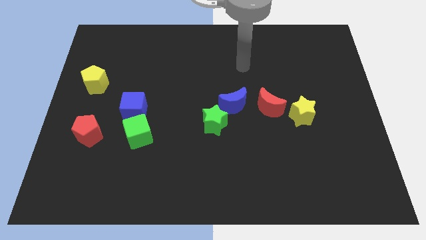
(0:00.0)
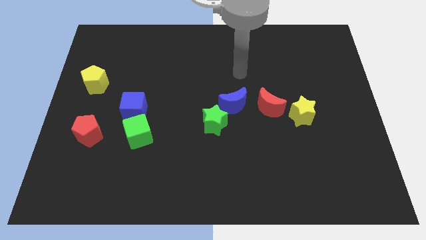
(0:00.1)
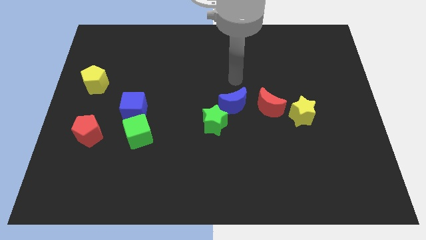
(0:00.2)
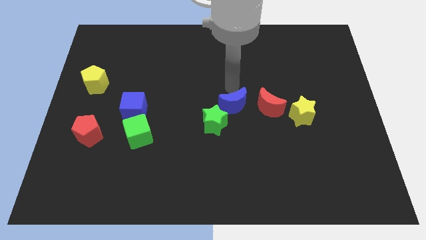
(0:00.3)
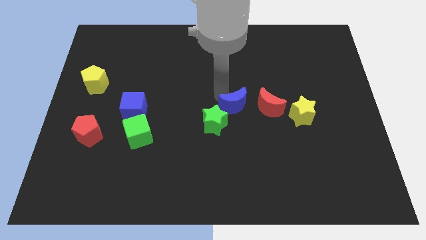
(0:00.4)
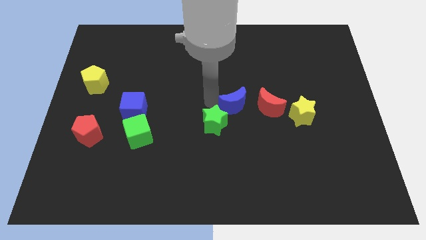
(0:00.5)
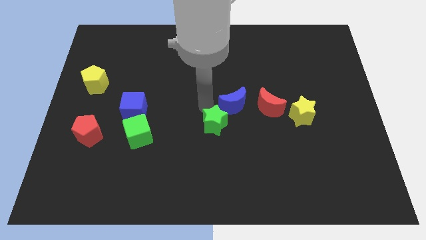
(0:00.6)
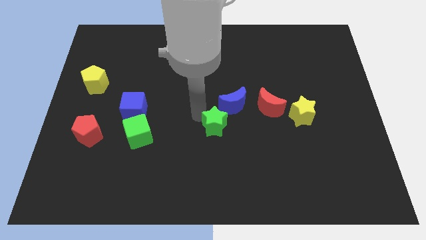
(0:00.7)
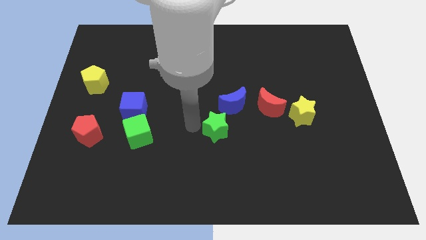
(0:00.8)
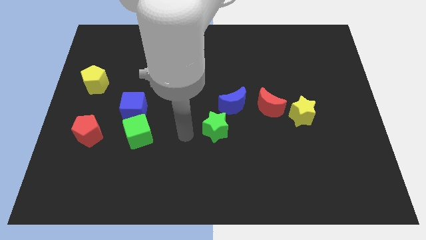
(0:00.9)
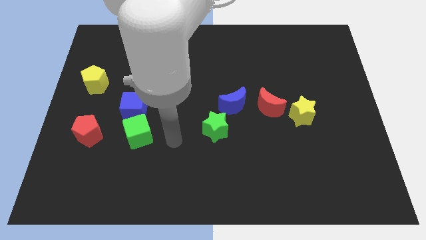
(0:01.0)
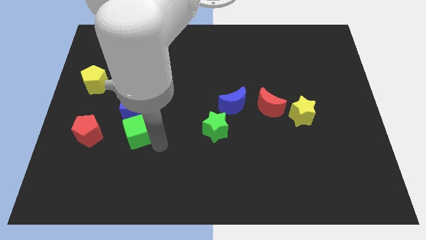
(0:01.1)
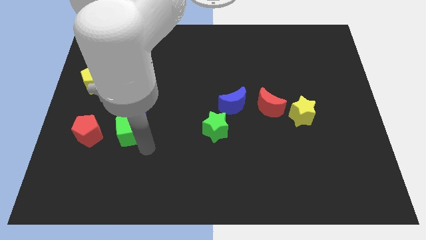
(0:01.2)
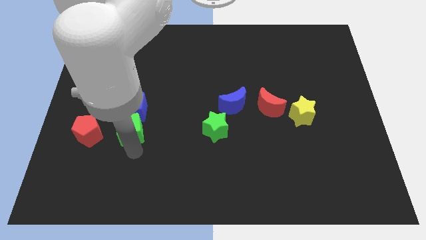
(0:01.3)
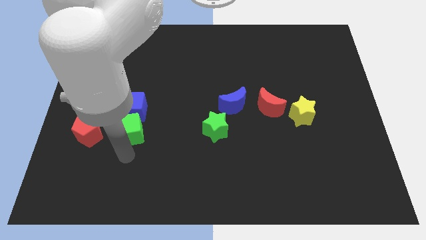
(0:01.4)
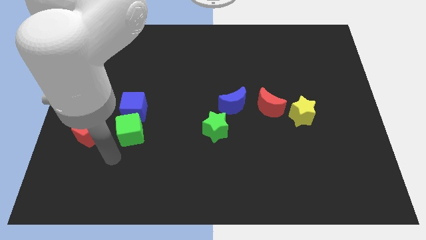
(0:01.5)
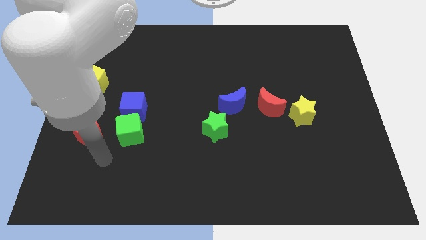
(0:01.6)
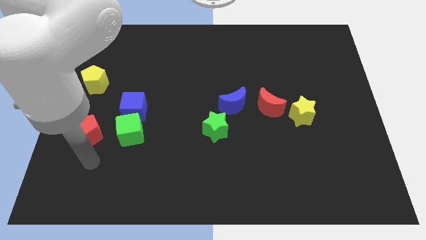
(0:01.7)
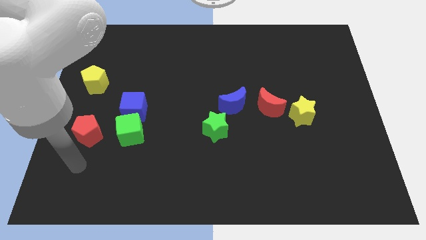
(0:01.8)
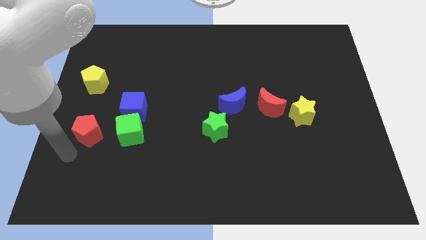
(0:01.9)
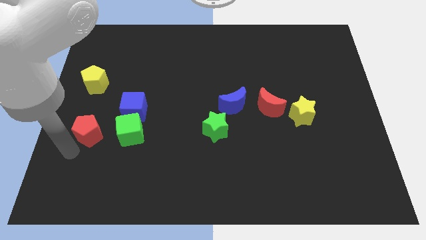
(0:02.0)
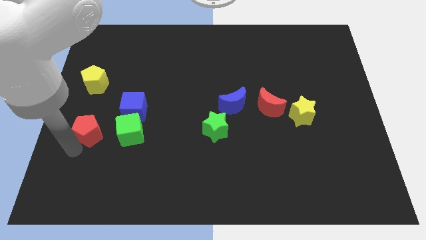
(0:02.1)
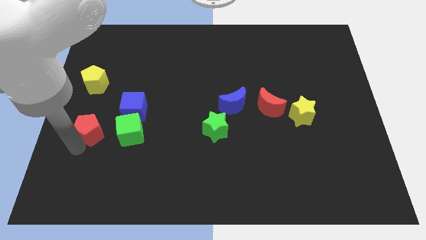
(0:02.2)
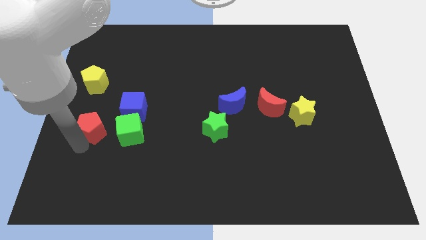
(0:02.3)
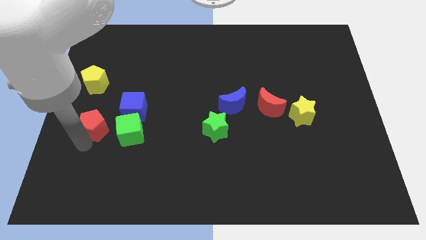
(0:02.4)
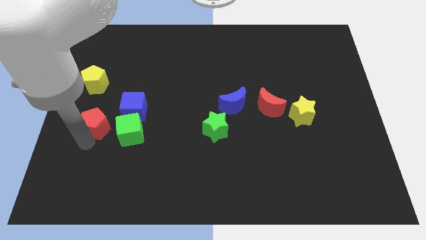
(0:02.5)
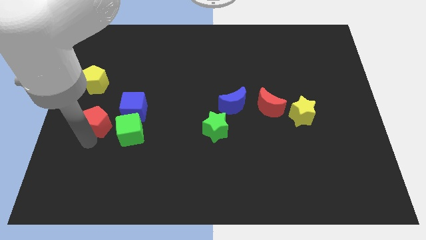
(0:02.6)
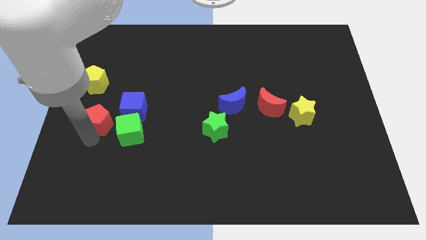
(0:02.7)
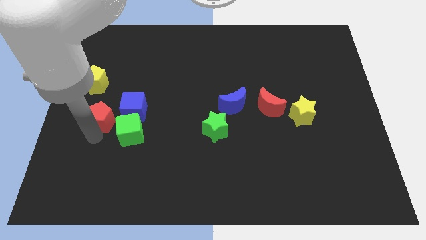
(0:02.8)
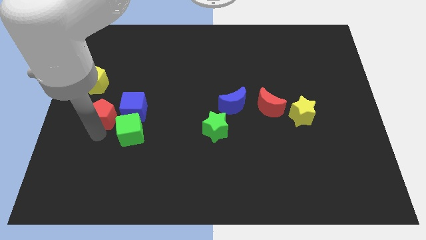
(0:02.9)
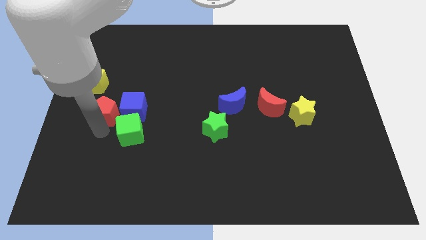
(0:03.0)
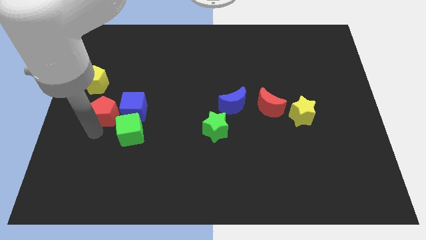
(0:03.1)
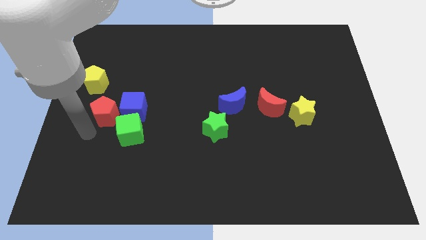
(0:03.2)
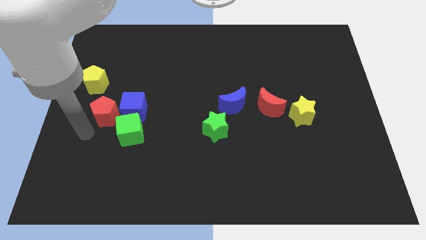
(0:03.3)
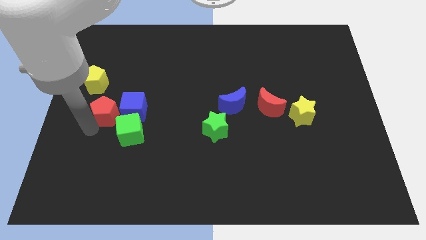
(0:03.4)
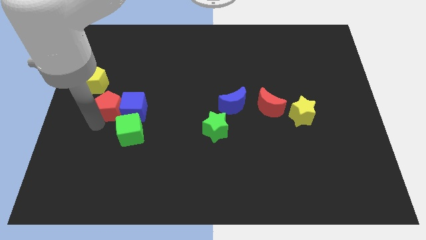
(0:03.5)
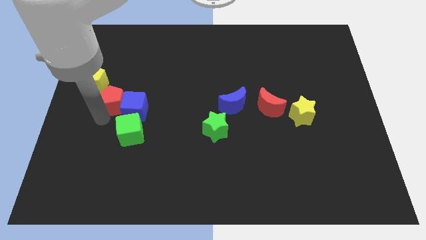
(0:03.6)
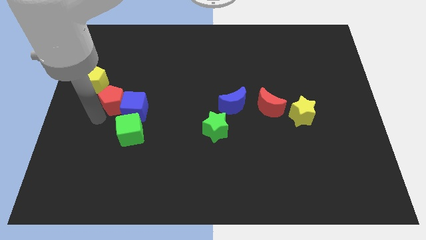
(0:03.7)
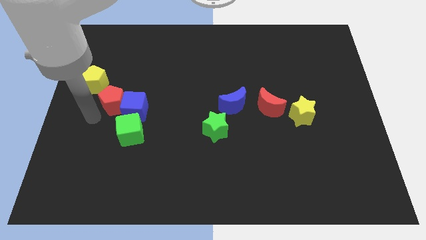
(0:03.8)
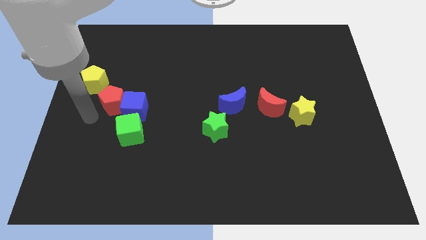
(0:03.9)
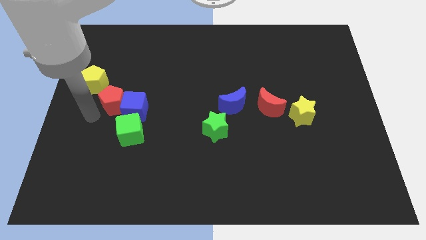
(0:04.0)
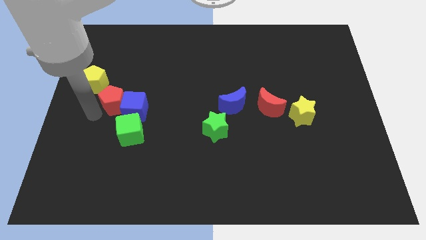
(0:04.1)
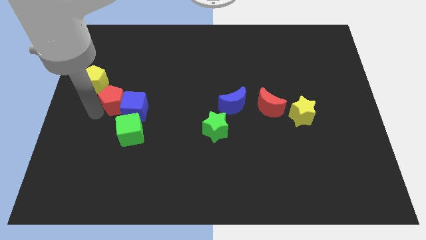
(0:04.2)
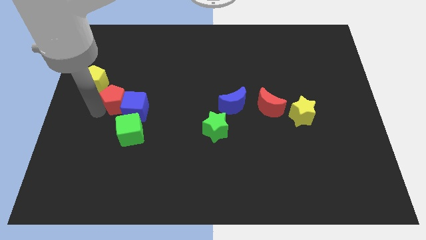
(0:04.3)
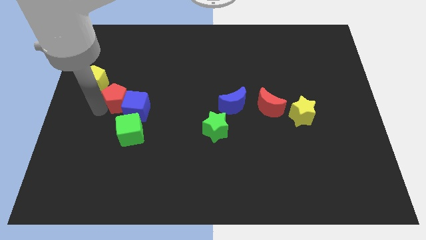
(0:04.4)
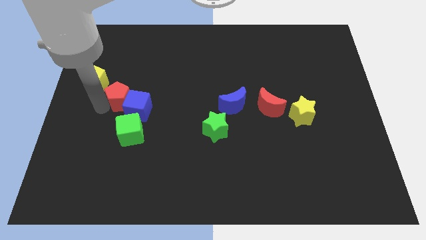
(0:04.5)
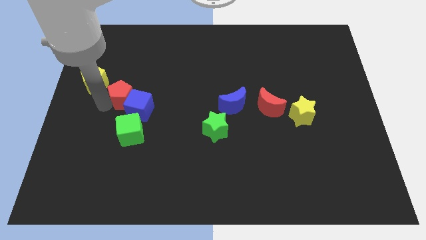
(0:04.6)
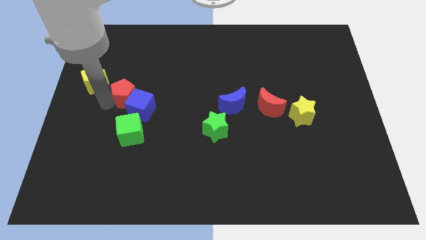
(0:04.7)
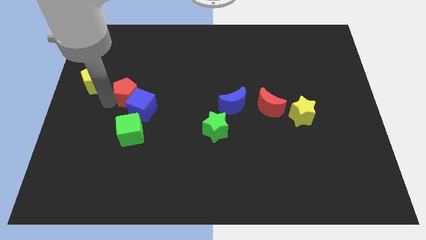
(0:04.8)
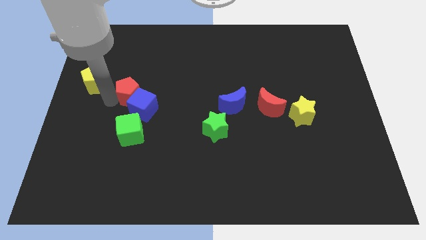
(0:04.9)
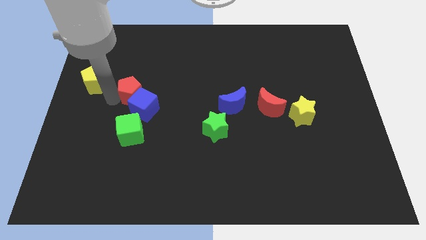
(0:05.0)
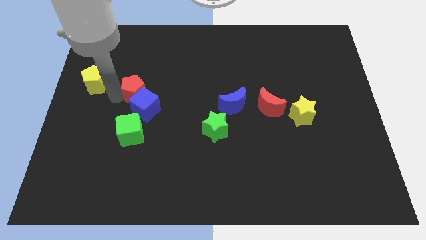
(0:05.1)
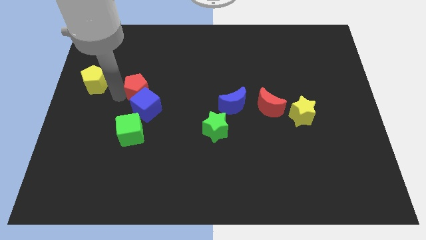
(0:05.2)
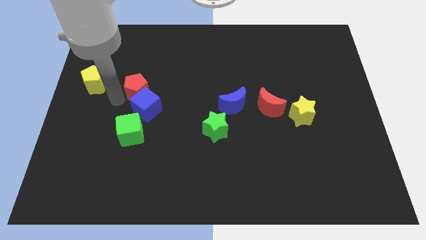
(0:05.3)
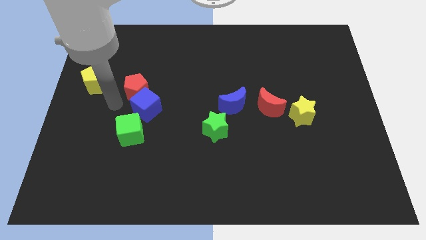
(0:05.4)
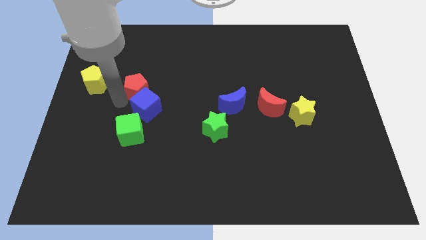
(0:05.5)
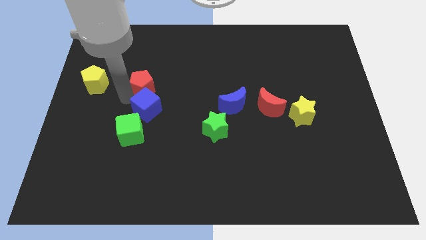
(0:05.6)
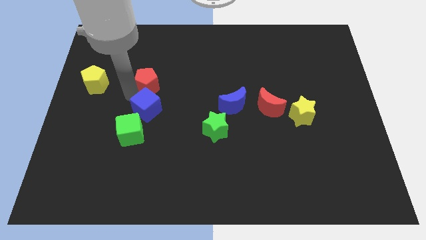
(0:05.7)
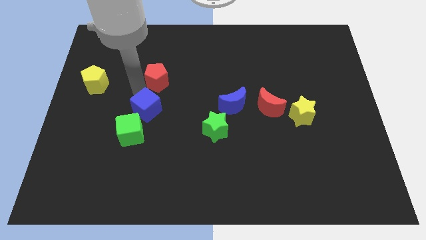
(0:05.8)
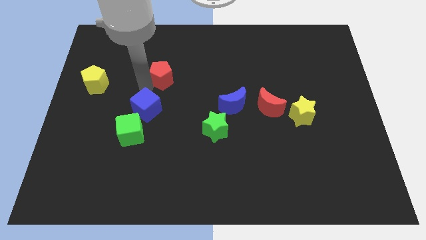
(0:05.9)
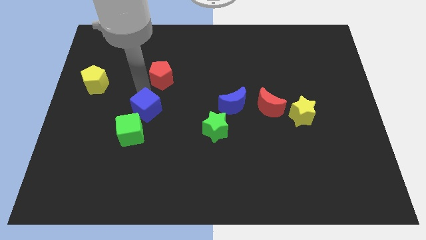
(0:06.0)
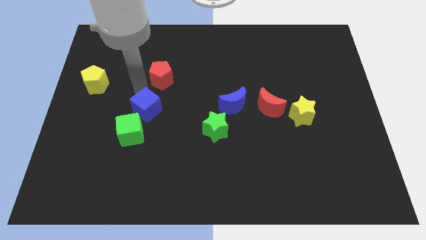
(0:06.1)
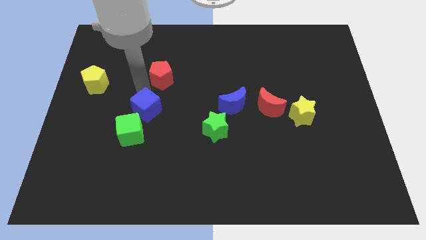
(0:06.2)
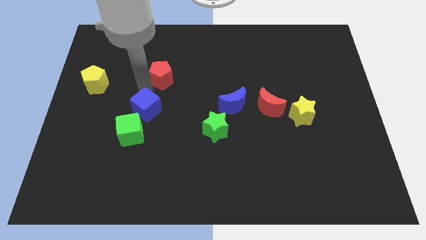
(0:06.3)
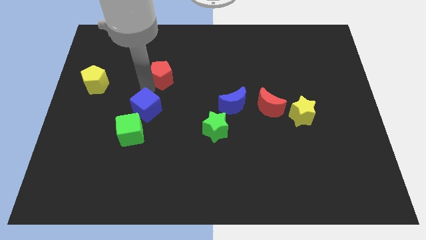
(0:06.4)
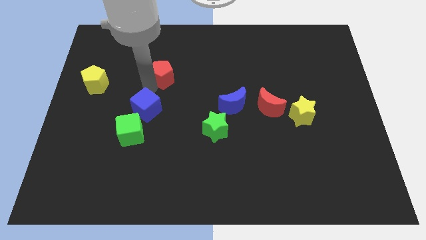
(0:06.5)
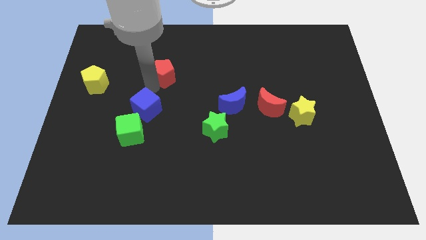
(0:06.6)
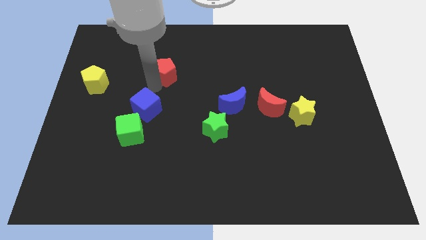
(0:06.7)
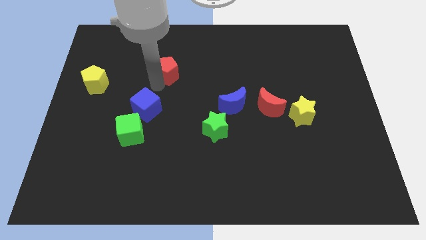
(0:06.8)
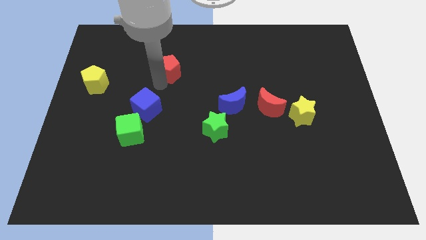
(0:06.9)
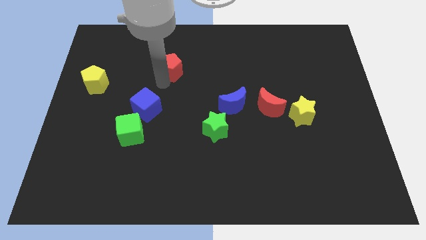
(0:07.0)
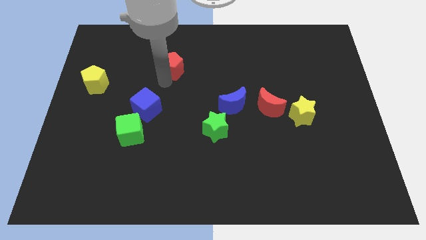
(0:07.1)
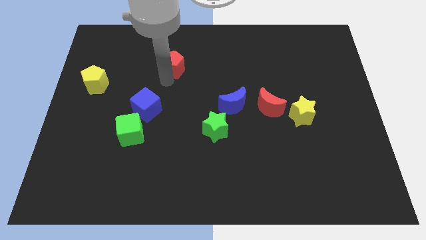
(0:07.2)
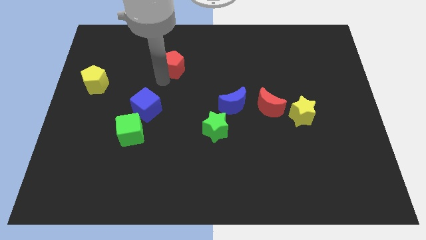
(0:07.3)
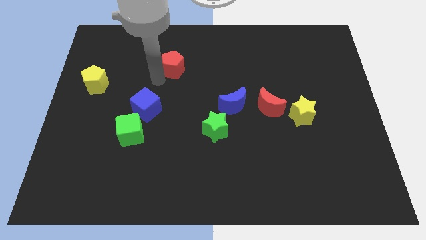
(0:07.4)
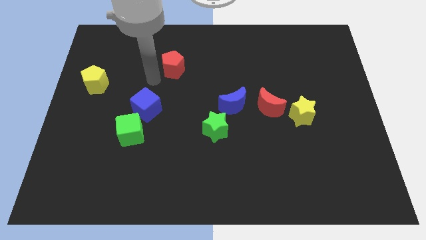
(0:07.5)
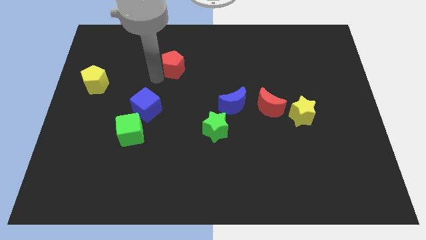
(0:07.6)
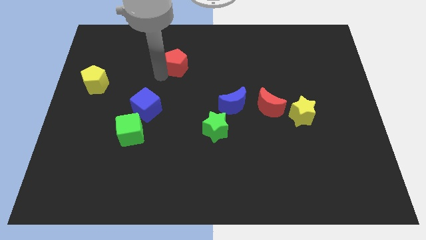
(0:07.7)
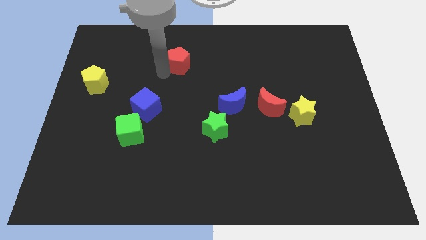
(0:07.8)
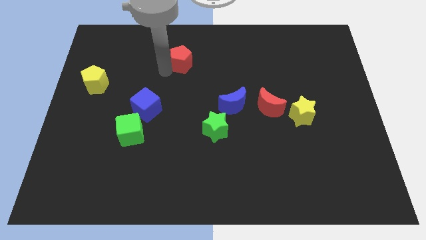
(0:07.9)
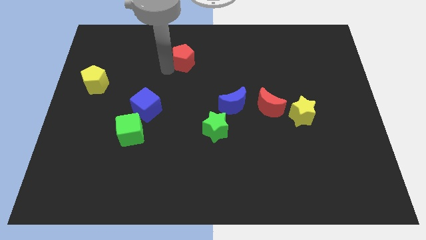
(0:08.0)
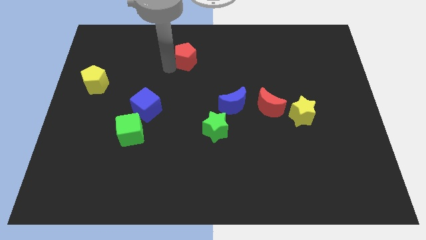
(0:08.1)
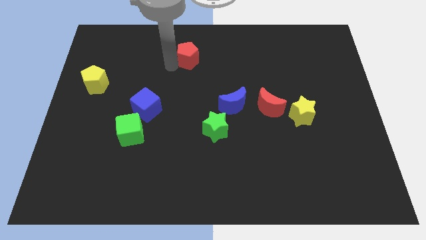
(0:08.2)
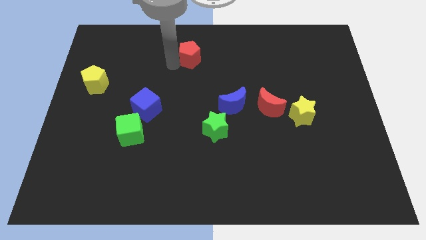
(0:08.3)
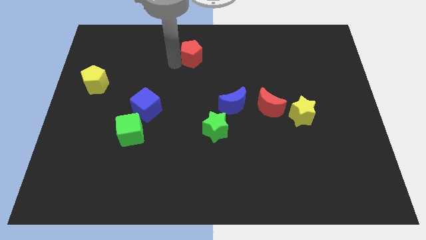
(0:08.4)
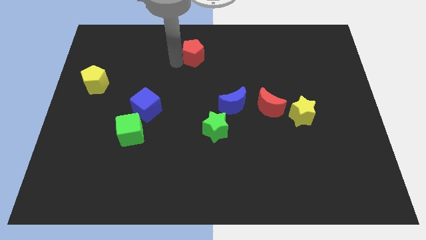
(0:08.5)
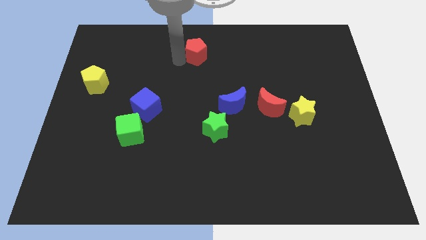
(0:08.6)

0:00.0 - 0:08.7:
slide the red pentagon to the top
